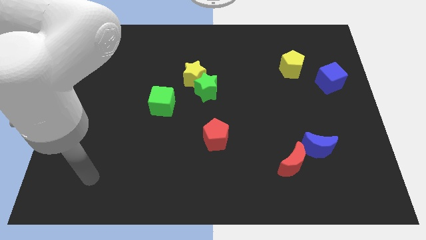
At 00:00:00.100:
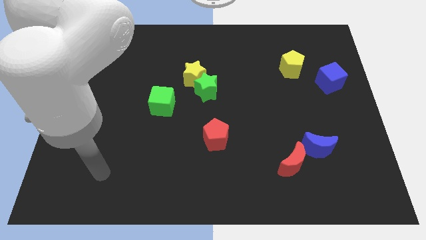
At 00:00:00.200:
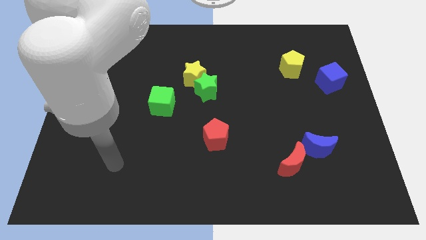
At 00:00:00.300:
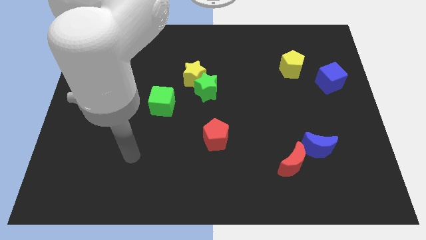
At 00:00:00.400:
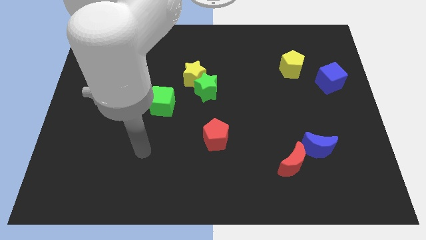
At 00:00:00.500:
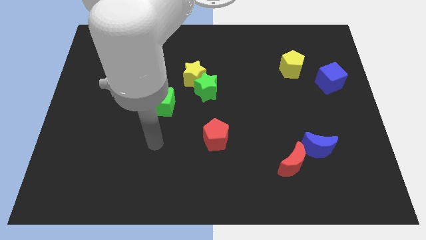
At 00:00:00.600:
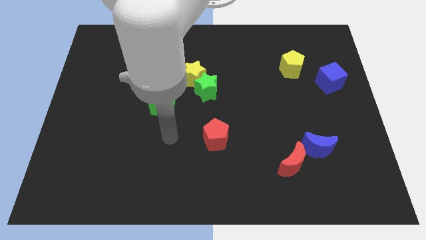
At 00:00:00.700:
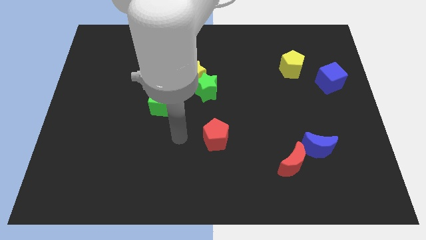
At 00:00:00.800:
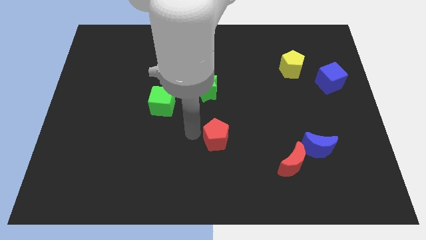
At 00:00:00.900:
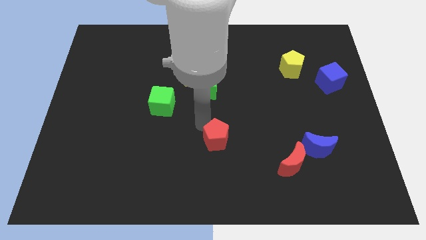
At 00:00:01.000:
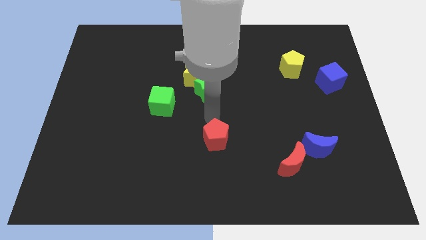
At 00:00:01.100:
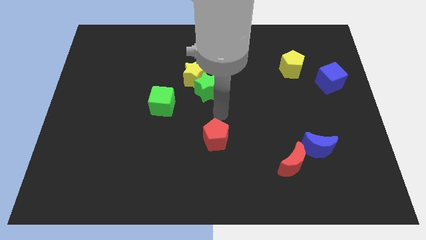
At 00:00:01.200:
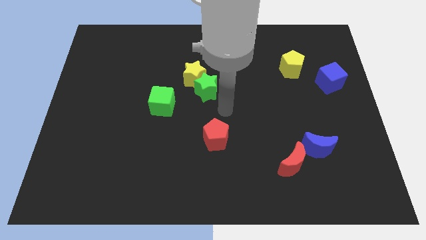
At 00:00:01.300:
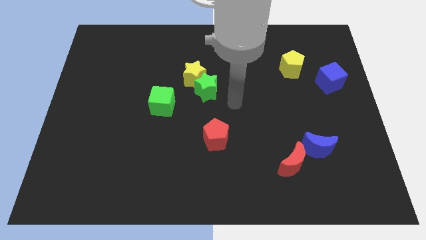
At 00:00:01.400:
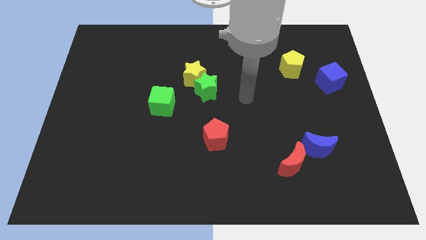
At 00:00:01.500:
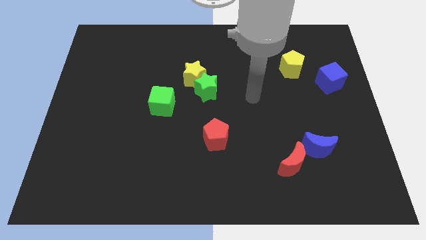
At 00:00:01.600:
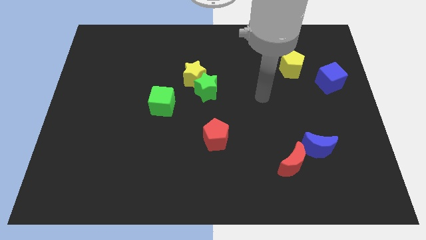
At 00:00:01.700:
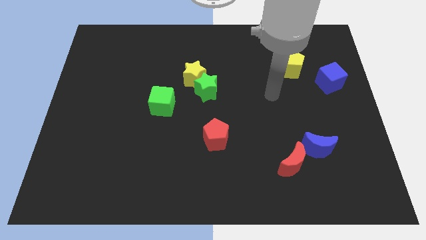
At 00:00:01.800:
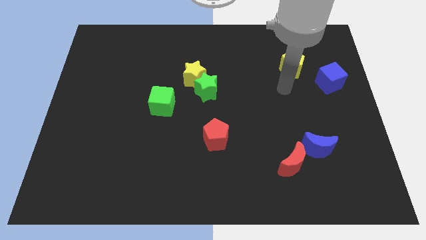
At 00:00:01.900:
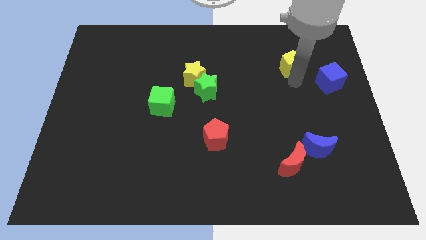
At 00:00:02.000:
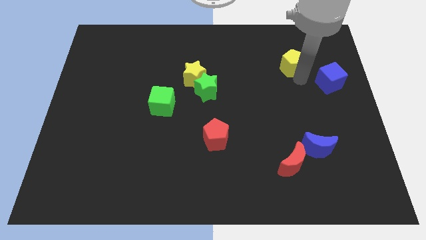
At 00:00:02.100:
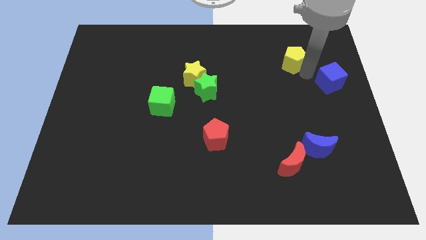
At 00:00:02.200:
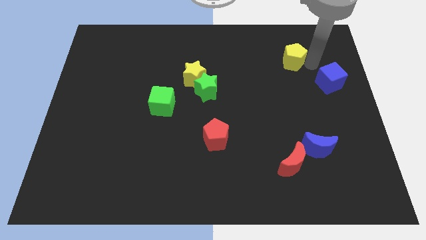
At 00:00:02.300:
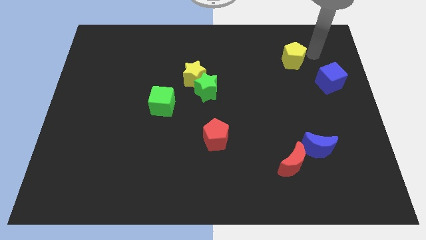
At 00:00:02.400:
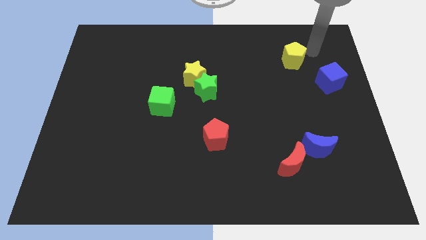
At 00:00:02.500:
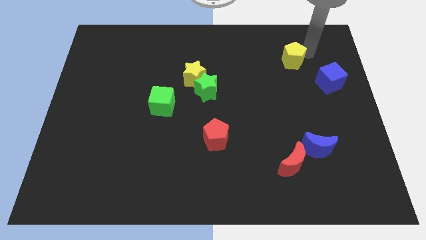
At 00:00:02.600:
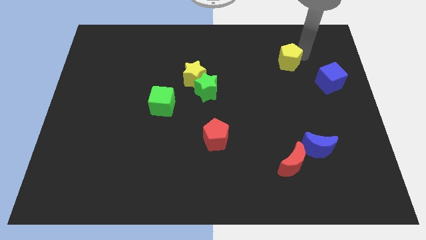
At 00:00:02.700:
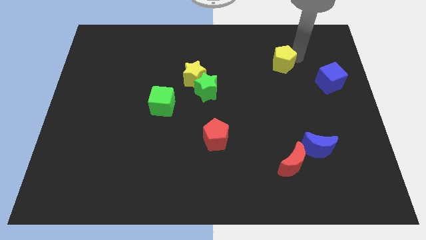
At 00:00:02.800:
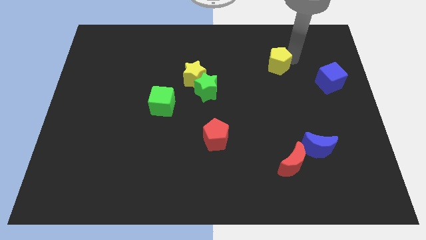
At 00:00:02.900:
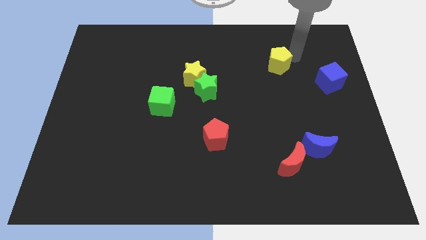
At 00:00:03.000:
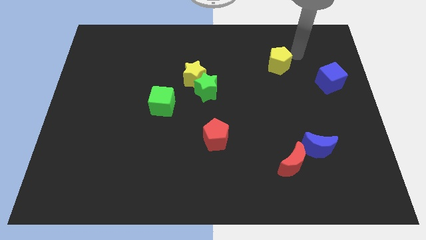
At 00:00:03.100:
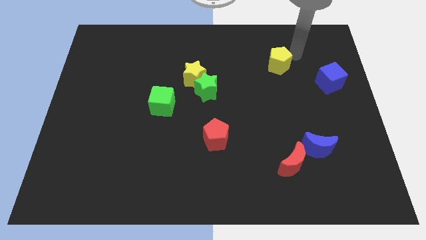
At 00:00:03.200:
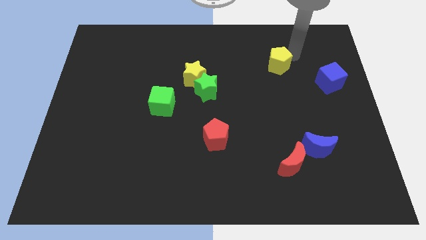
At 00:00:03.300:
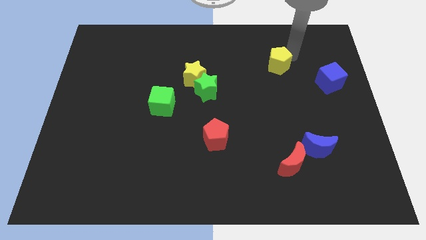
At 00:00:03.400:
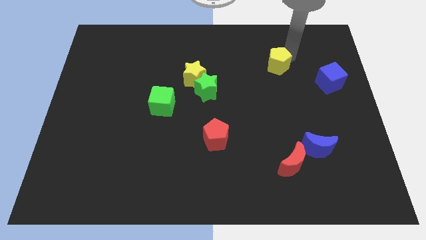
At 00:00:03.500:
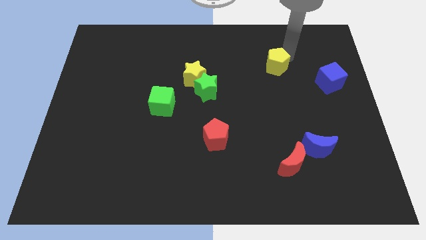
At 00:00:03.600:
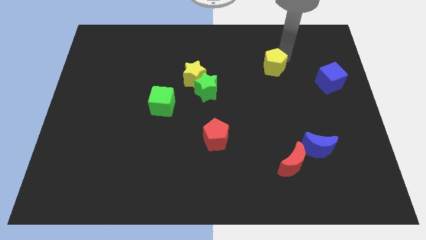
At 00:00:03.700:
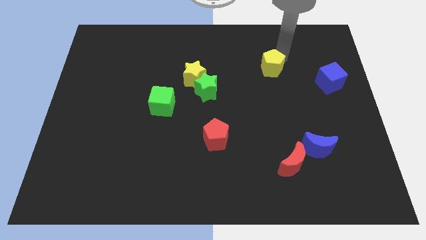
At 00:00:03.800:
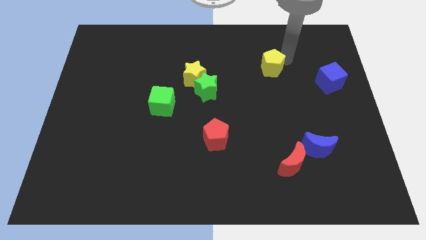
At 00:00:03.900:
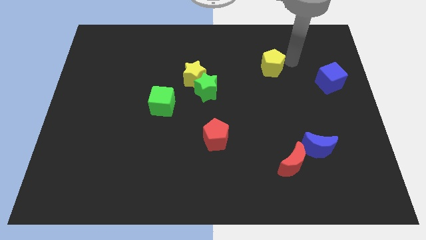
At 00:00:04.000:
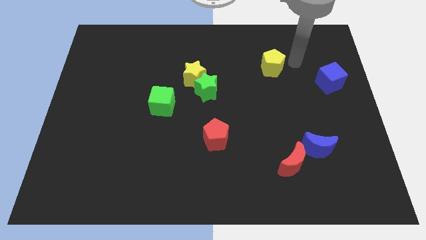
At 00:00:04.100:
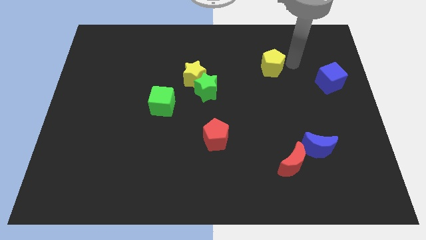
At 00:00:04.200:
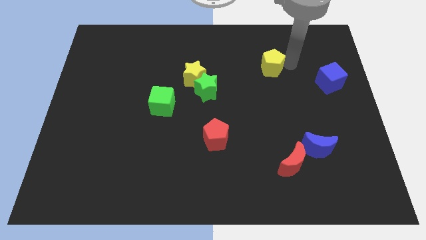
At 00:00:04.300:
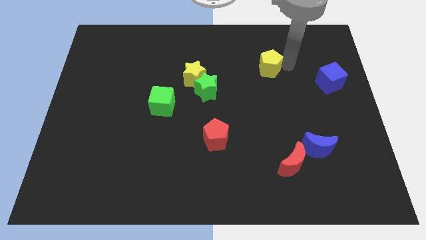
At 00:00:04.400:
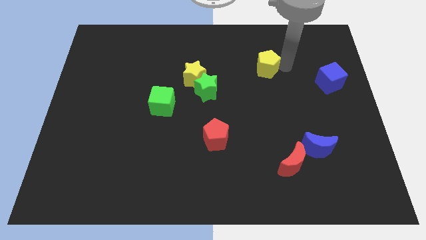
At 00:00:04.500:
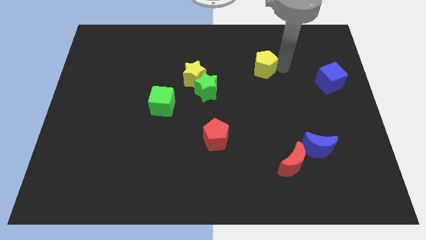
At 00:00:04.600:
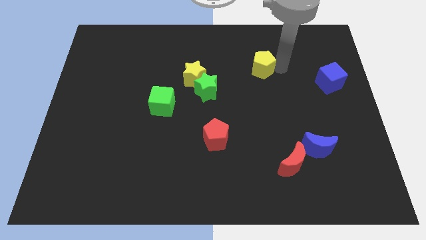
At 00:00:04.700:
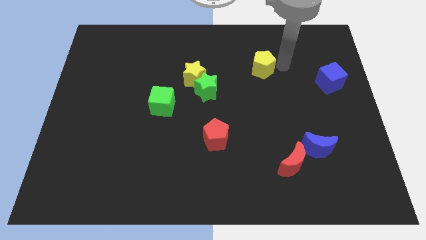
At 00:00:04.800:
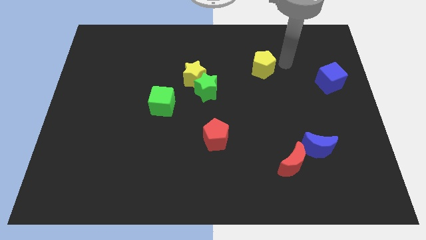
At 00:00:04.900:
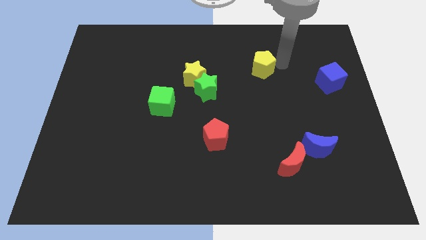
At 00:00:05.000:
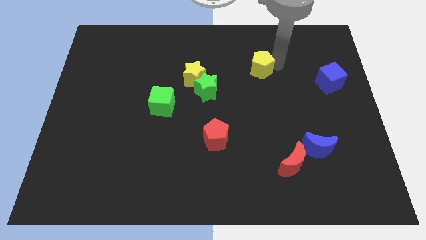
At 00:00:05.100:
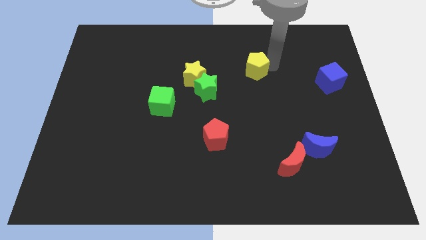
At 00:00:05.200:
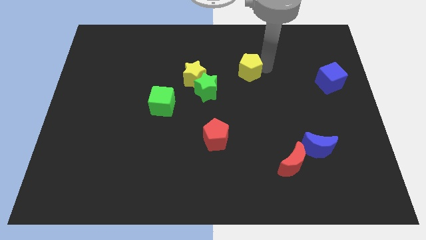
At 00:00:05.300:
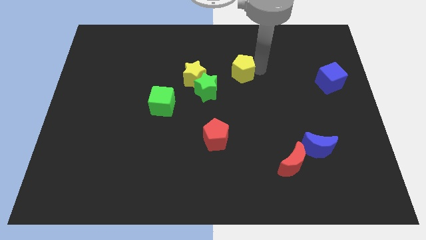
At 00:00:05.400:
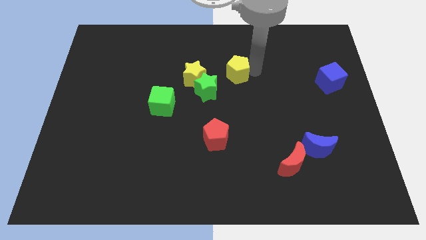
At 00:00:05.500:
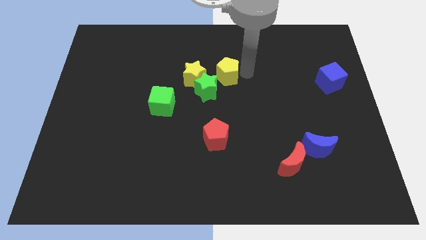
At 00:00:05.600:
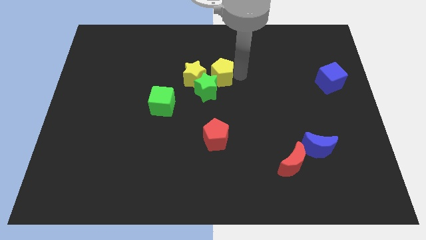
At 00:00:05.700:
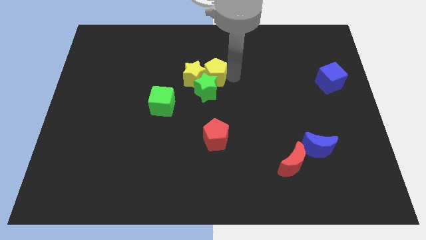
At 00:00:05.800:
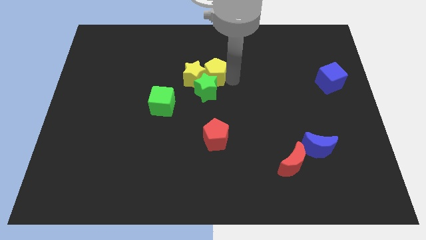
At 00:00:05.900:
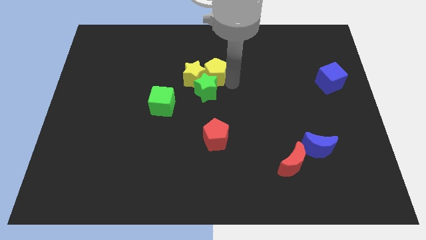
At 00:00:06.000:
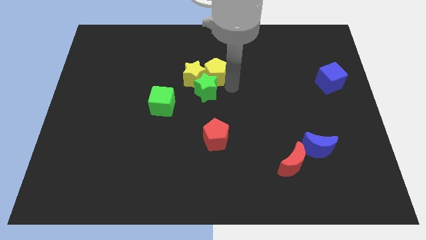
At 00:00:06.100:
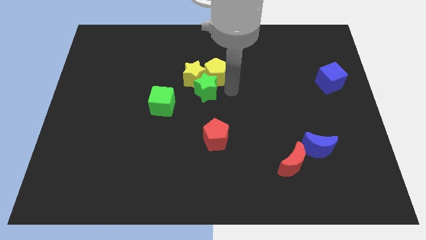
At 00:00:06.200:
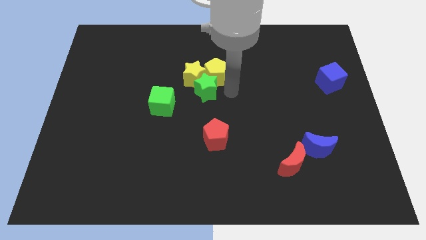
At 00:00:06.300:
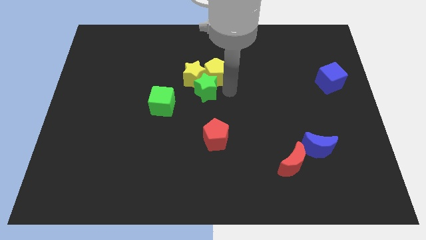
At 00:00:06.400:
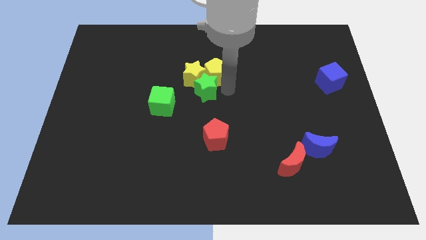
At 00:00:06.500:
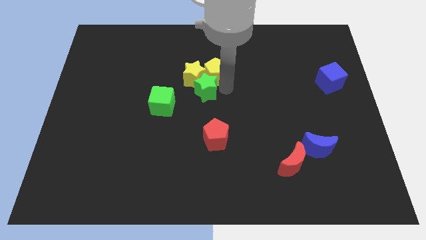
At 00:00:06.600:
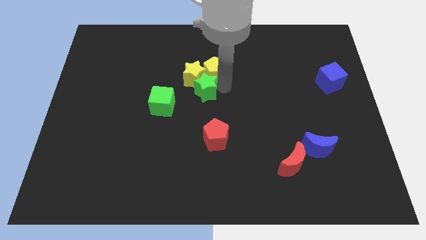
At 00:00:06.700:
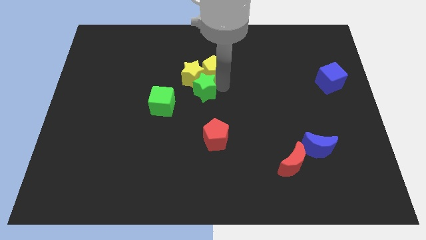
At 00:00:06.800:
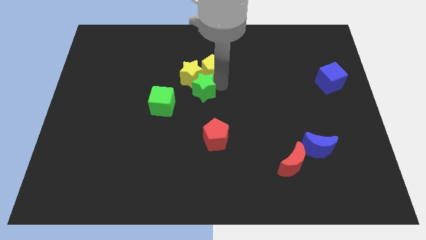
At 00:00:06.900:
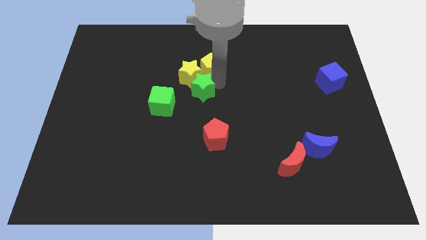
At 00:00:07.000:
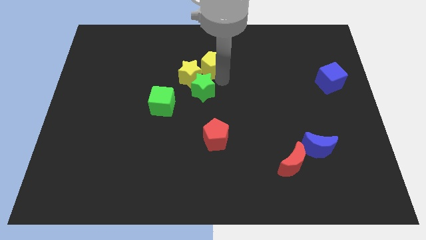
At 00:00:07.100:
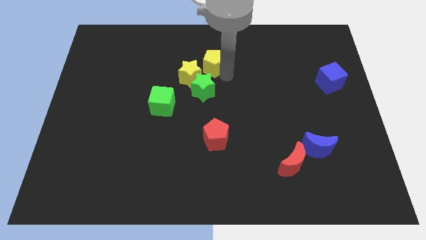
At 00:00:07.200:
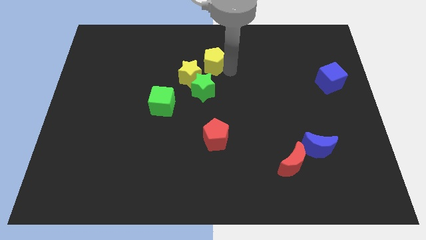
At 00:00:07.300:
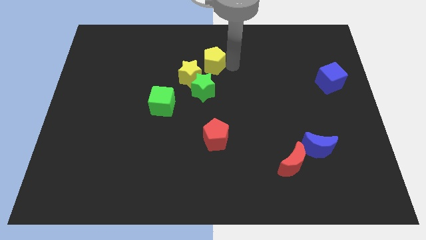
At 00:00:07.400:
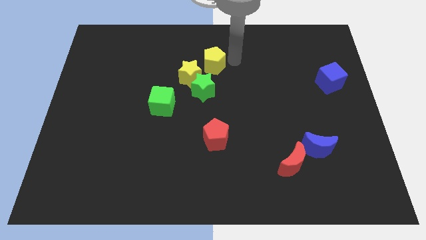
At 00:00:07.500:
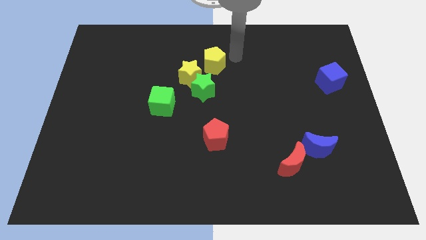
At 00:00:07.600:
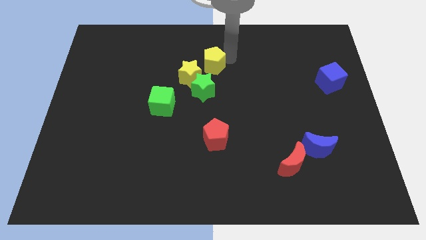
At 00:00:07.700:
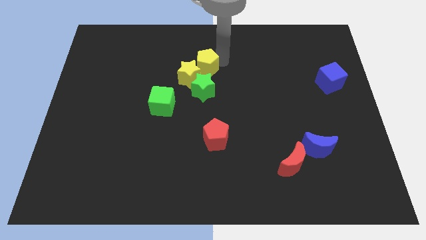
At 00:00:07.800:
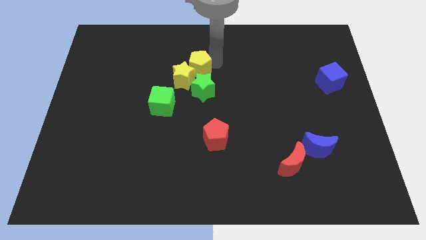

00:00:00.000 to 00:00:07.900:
move the yellow pentagon diagonally up and to the left of the green star
